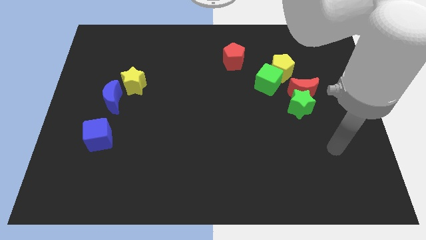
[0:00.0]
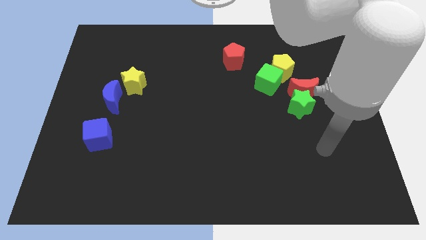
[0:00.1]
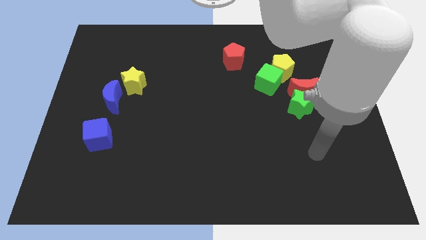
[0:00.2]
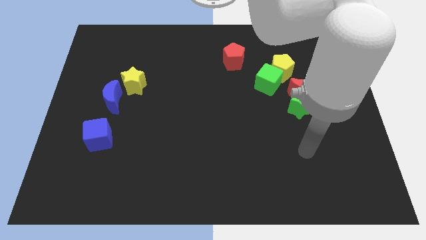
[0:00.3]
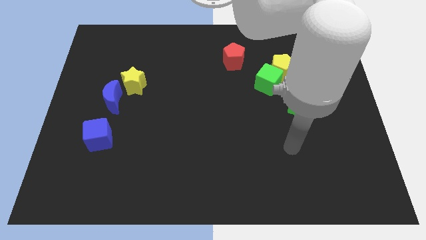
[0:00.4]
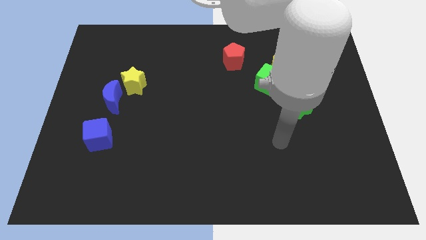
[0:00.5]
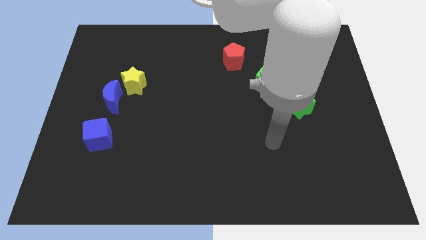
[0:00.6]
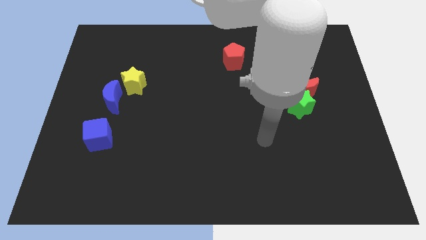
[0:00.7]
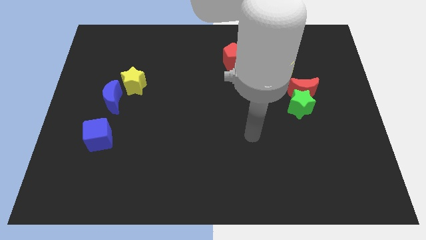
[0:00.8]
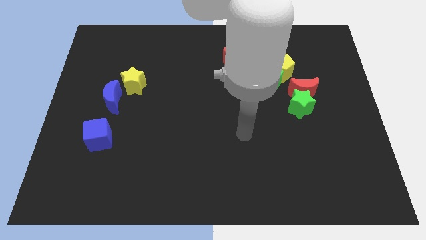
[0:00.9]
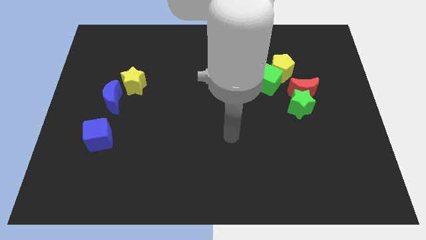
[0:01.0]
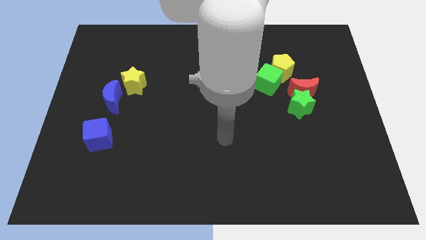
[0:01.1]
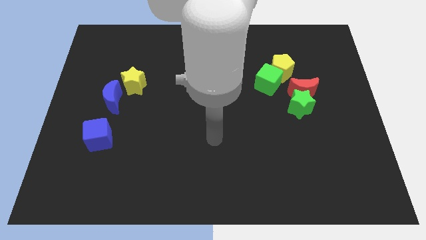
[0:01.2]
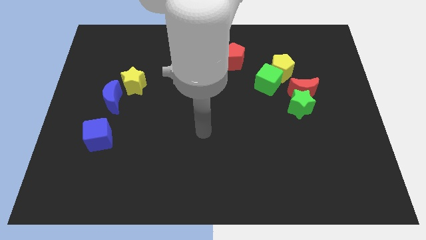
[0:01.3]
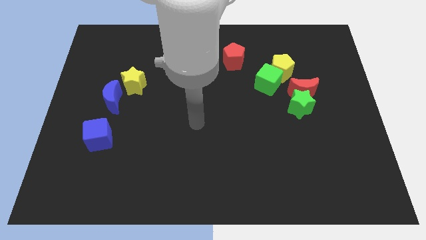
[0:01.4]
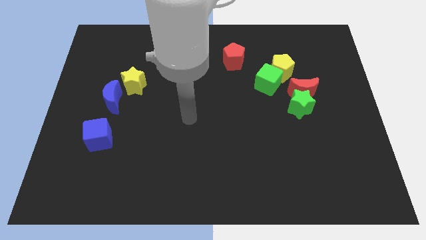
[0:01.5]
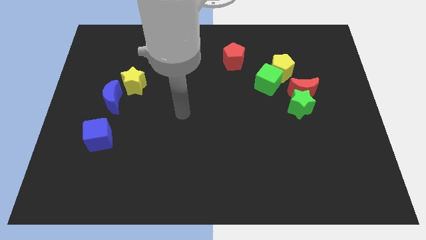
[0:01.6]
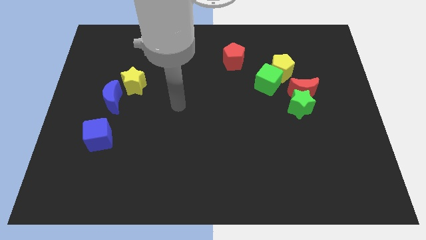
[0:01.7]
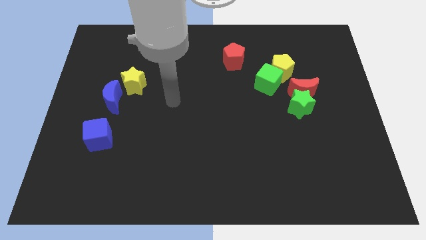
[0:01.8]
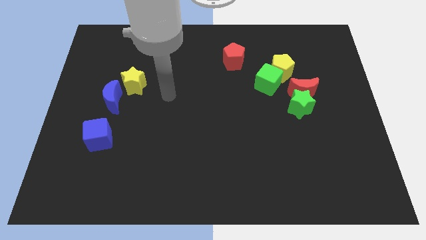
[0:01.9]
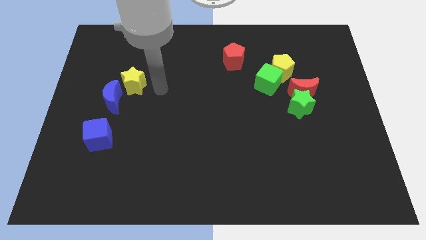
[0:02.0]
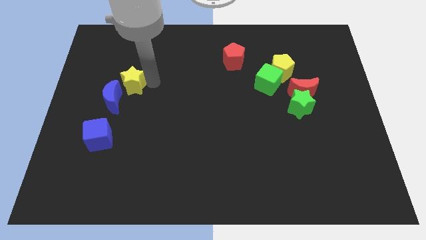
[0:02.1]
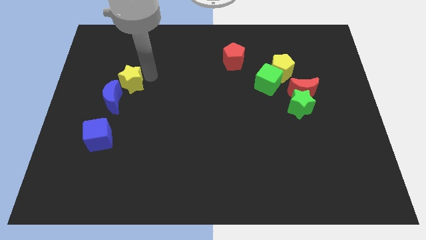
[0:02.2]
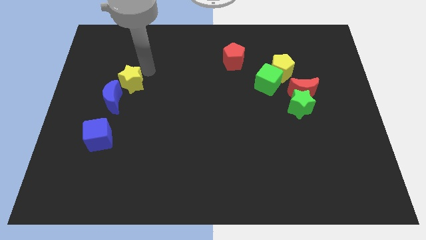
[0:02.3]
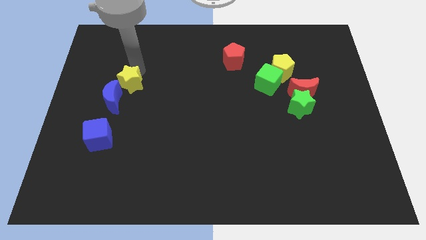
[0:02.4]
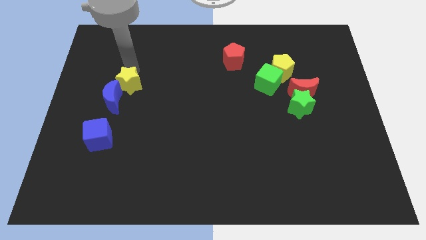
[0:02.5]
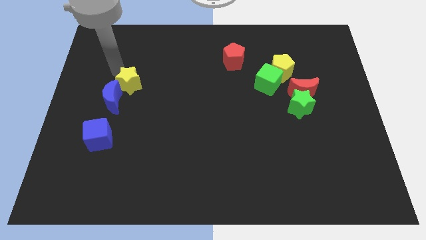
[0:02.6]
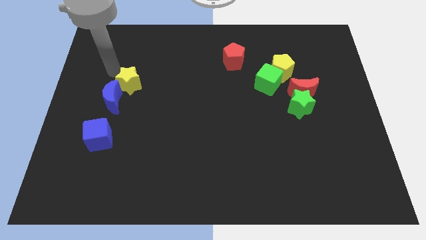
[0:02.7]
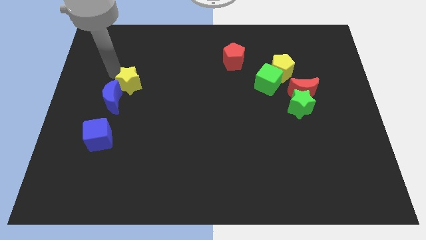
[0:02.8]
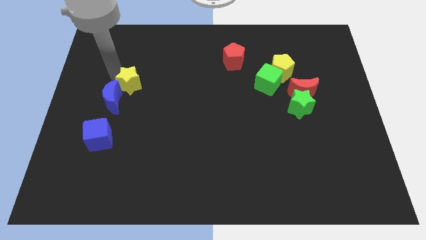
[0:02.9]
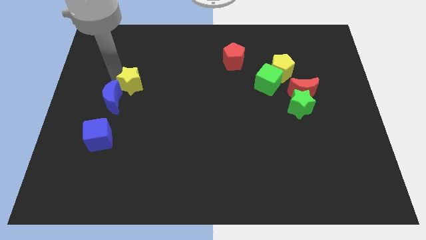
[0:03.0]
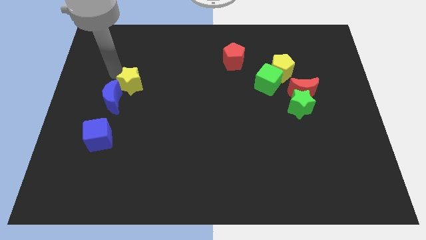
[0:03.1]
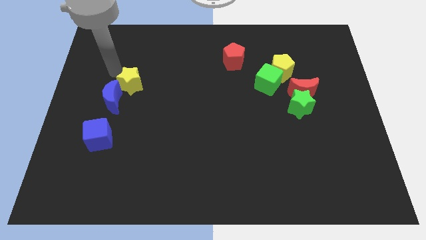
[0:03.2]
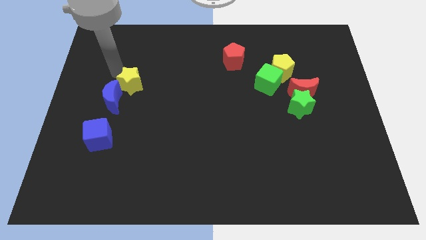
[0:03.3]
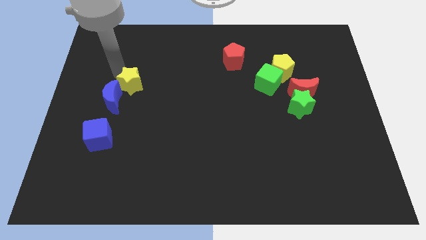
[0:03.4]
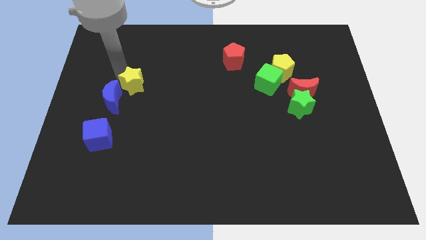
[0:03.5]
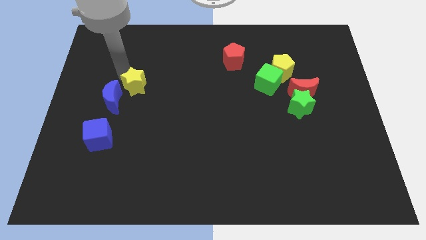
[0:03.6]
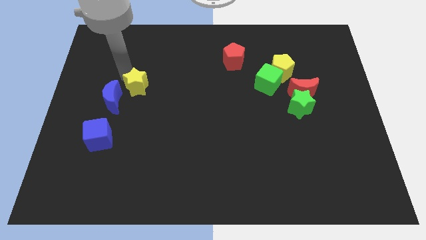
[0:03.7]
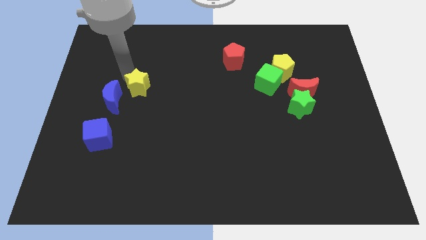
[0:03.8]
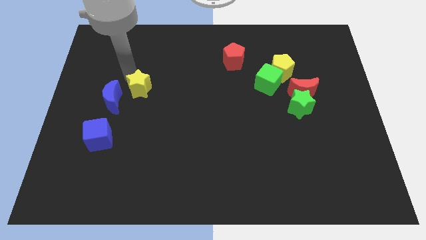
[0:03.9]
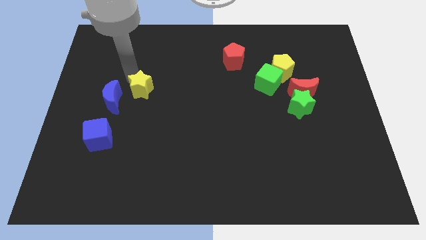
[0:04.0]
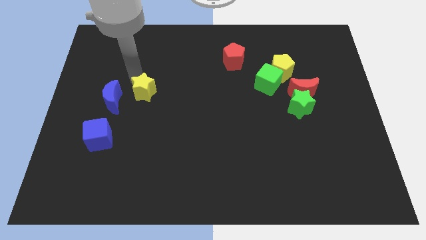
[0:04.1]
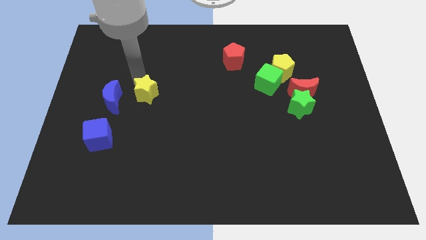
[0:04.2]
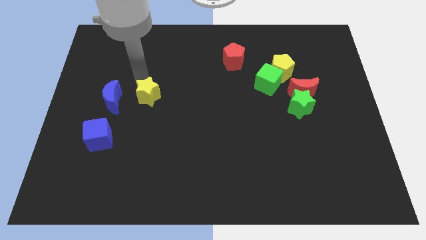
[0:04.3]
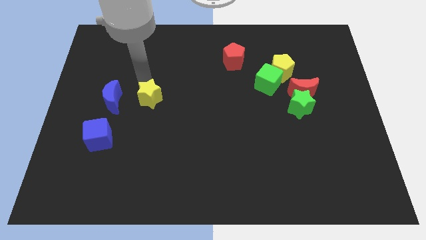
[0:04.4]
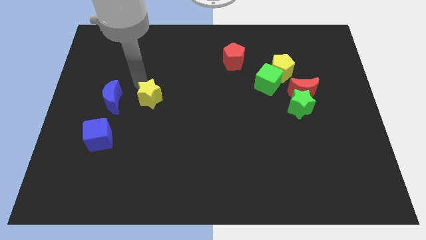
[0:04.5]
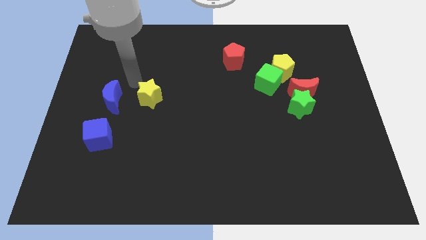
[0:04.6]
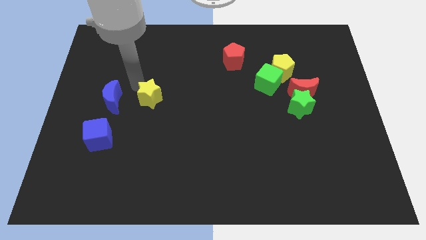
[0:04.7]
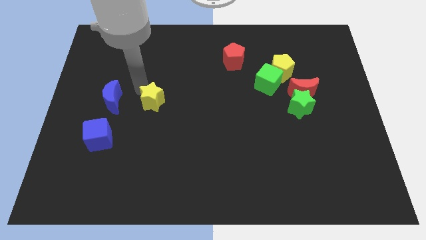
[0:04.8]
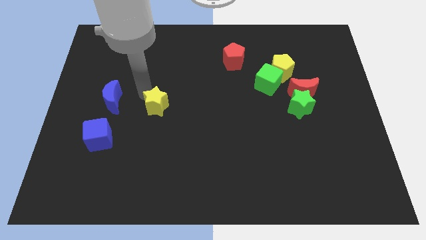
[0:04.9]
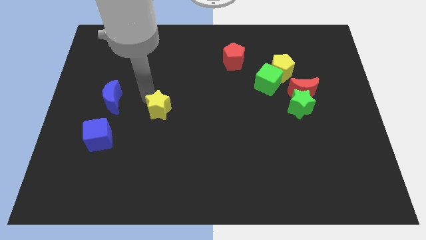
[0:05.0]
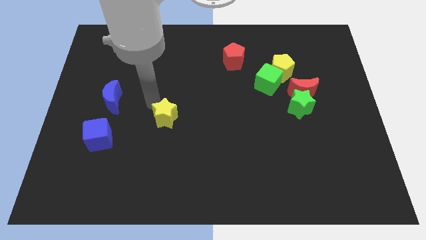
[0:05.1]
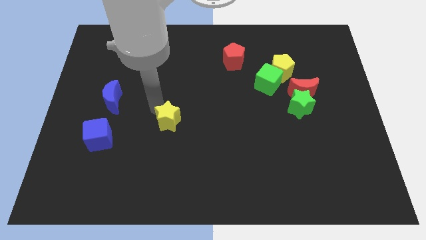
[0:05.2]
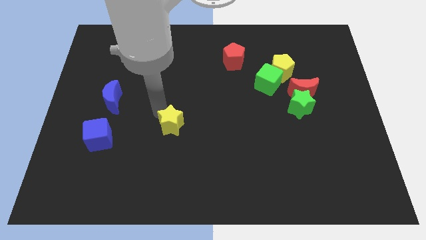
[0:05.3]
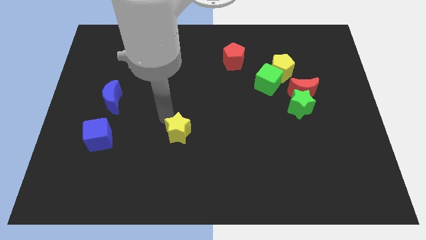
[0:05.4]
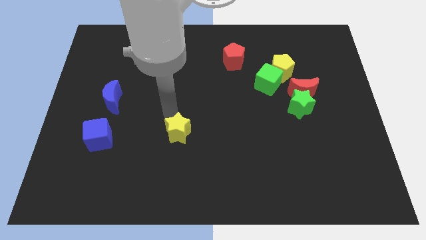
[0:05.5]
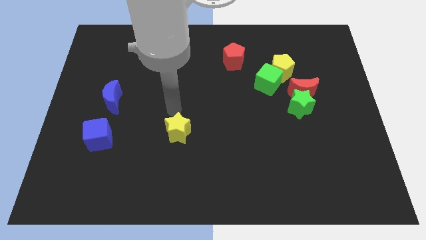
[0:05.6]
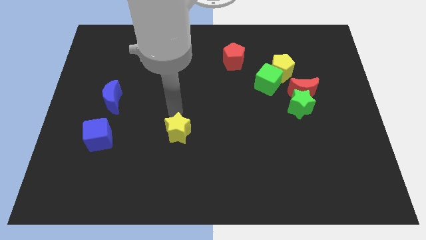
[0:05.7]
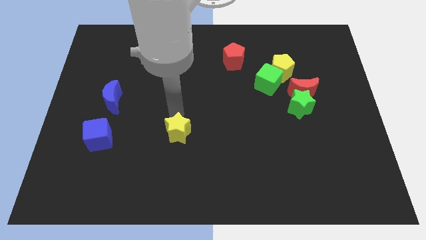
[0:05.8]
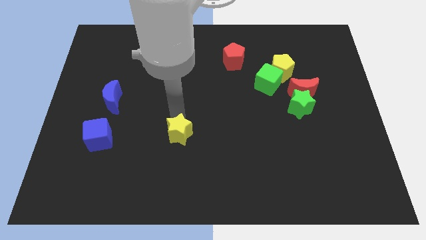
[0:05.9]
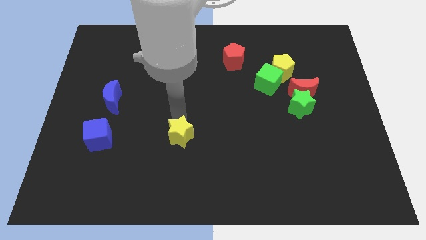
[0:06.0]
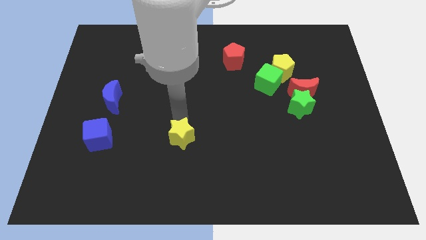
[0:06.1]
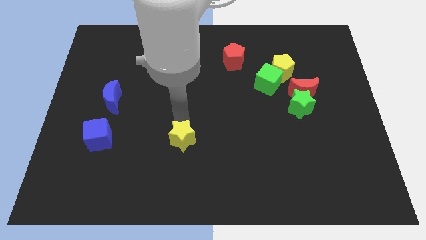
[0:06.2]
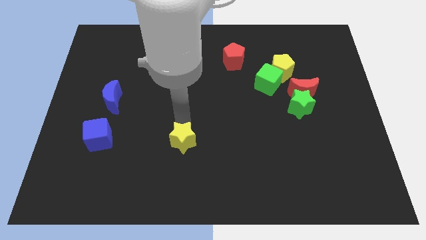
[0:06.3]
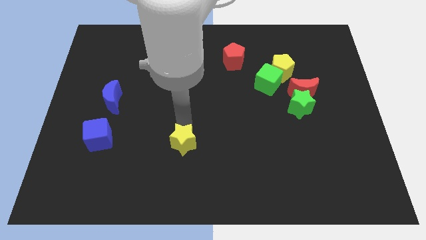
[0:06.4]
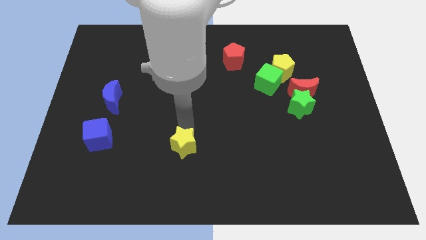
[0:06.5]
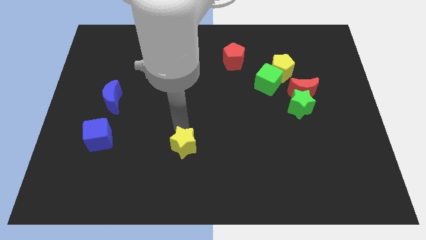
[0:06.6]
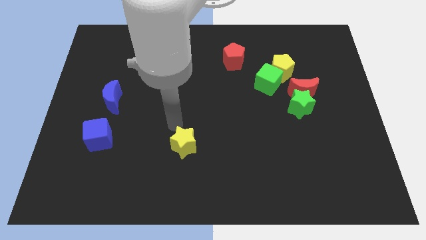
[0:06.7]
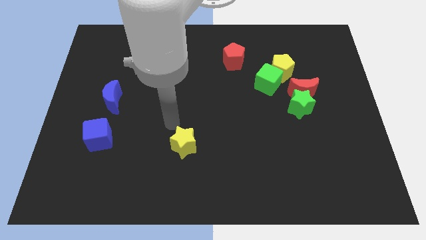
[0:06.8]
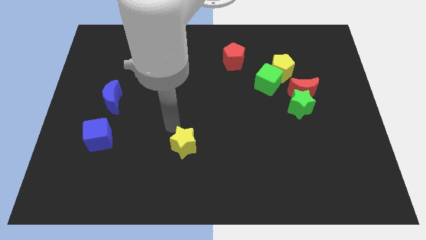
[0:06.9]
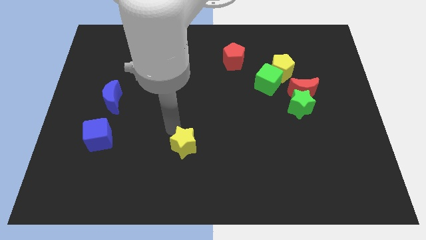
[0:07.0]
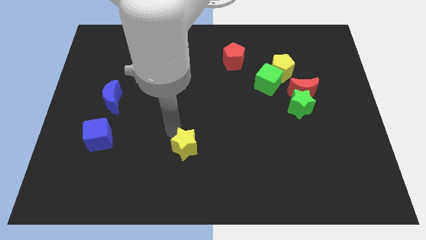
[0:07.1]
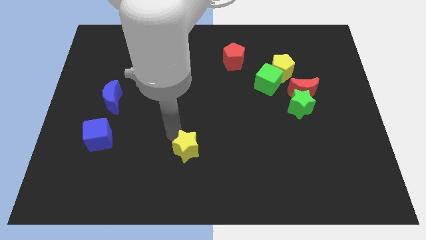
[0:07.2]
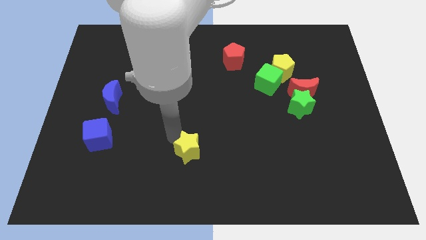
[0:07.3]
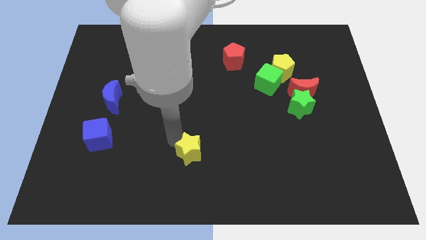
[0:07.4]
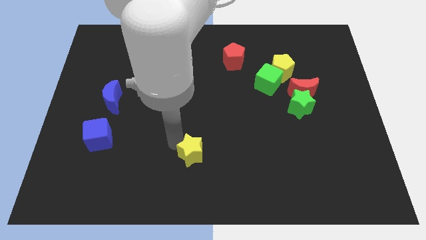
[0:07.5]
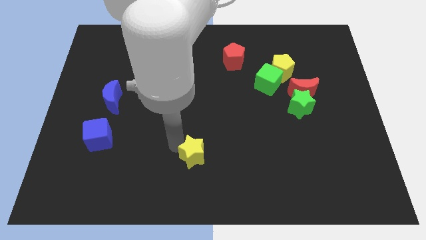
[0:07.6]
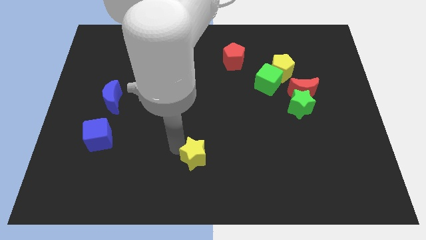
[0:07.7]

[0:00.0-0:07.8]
put the yellow star to the bottom
